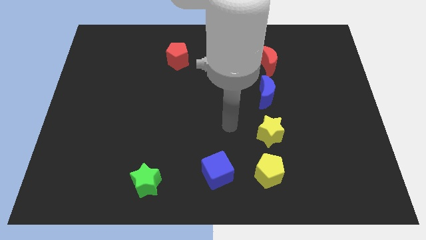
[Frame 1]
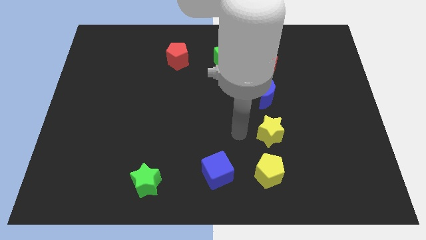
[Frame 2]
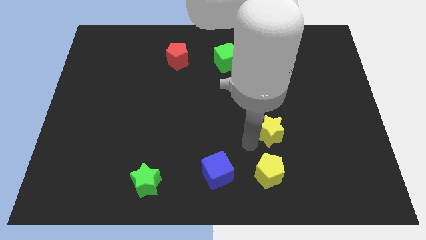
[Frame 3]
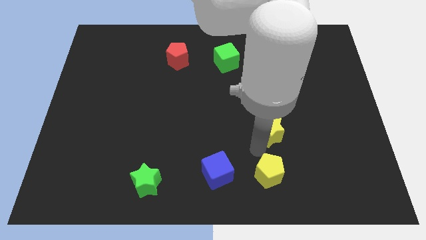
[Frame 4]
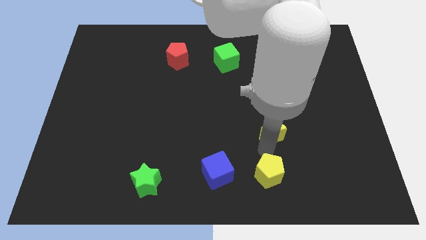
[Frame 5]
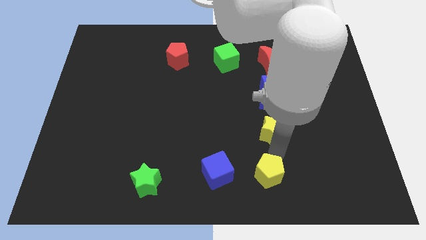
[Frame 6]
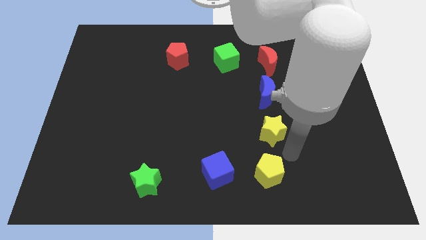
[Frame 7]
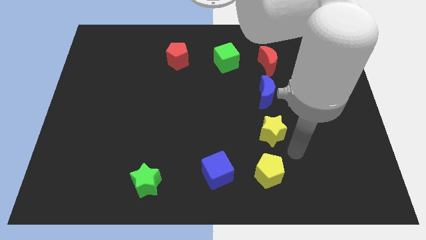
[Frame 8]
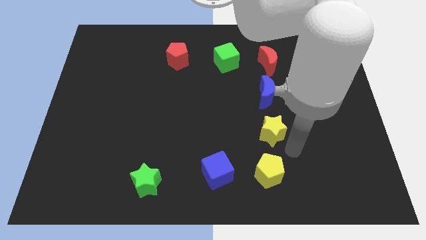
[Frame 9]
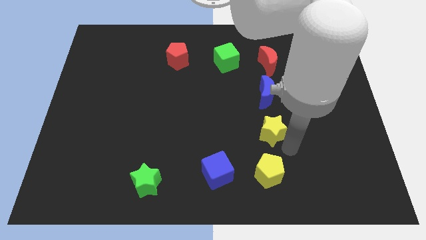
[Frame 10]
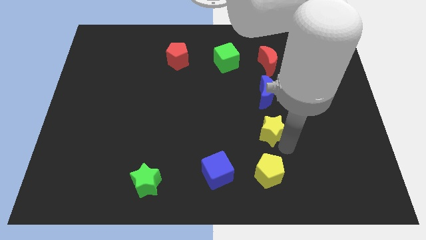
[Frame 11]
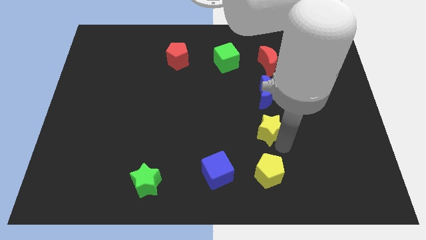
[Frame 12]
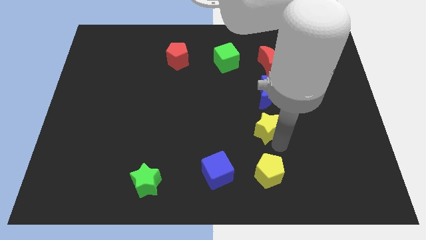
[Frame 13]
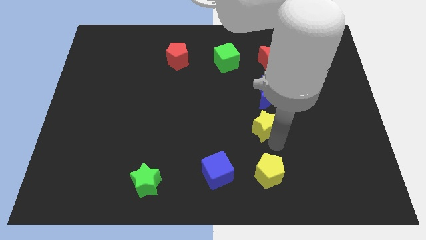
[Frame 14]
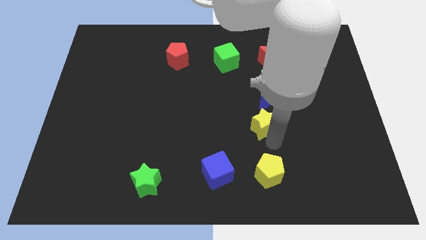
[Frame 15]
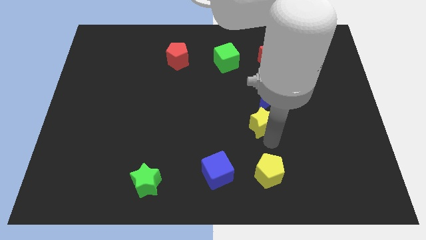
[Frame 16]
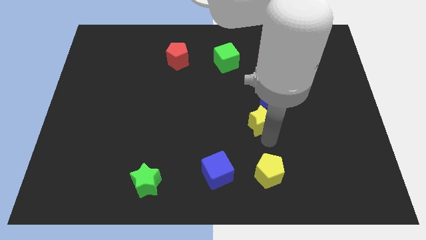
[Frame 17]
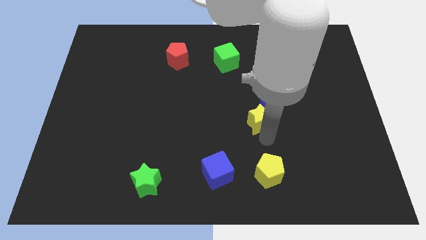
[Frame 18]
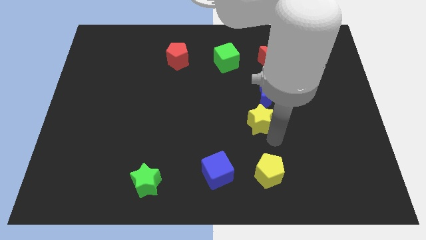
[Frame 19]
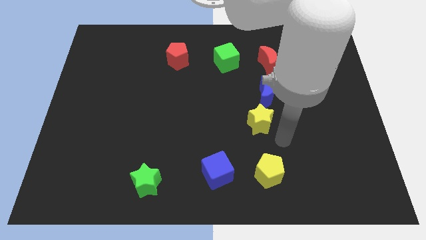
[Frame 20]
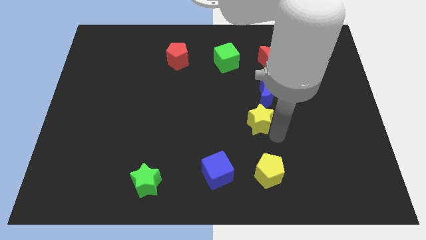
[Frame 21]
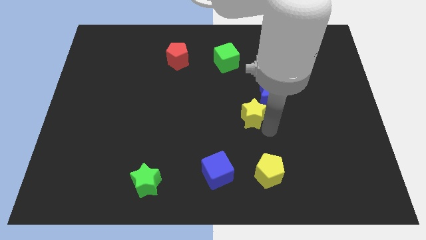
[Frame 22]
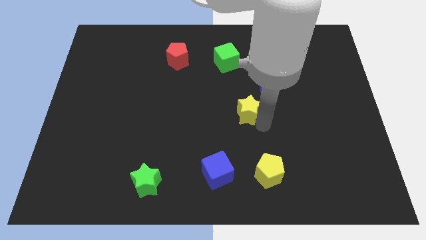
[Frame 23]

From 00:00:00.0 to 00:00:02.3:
push the yellow star upwards and to the left somewhat

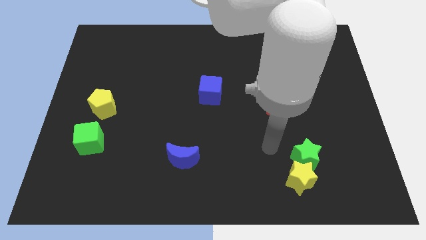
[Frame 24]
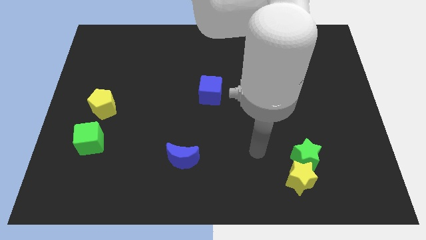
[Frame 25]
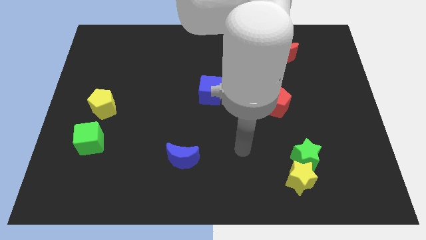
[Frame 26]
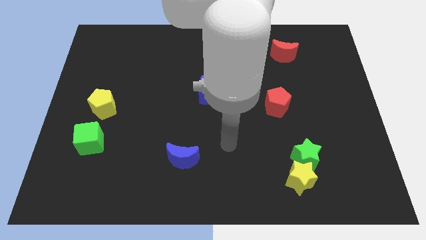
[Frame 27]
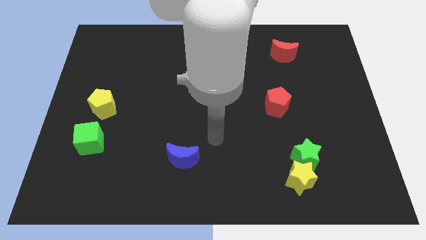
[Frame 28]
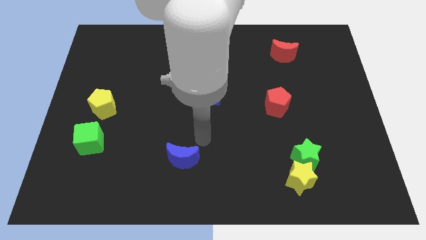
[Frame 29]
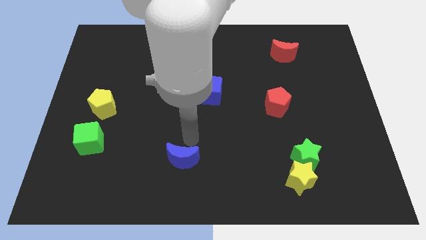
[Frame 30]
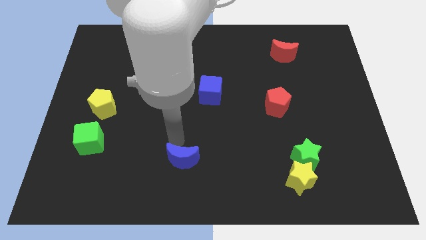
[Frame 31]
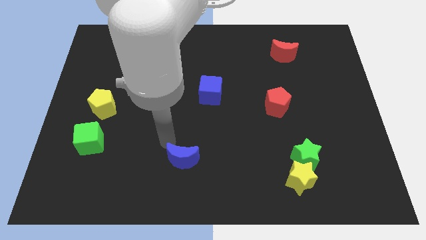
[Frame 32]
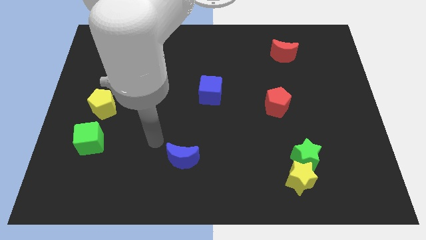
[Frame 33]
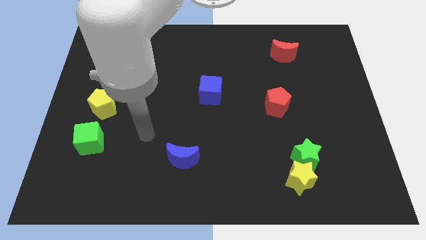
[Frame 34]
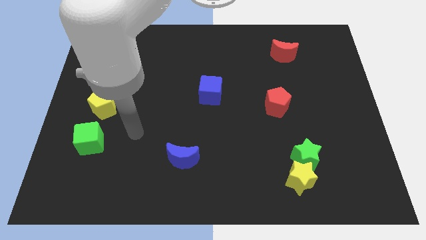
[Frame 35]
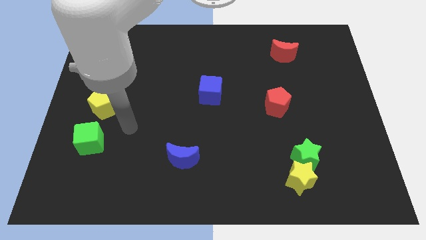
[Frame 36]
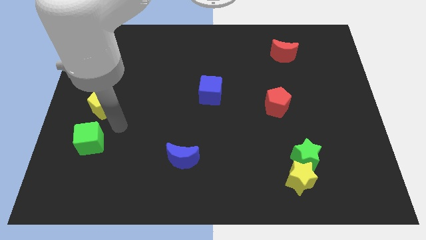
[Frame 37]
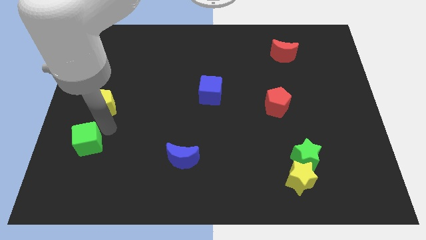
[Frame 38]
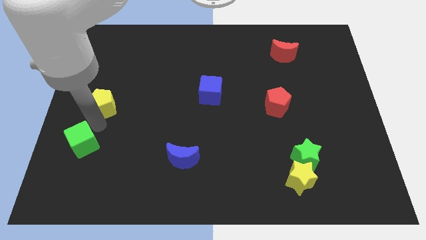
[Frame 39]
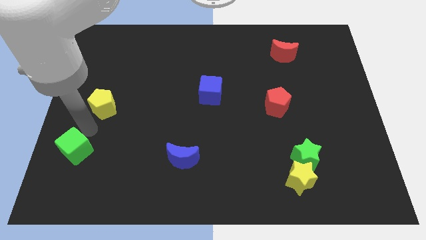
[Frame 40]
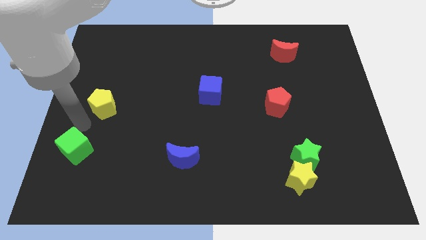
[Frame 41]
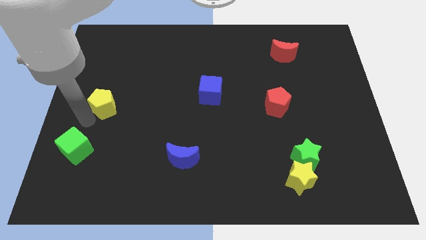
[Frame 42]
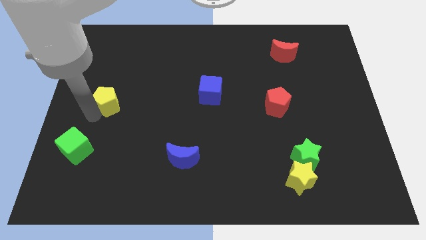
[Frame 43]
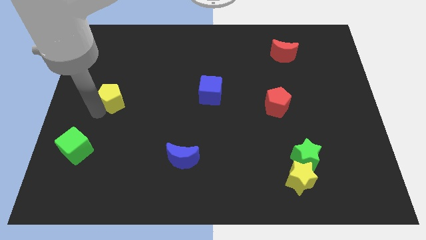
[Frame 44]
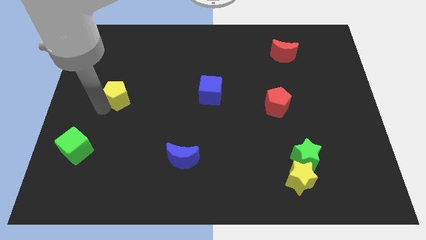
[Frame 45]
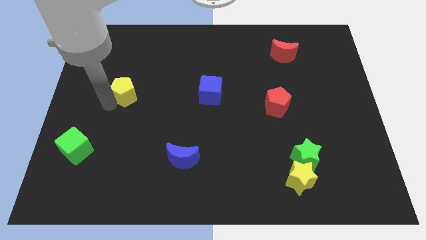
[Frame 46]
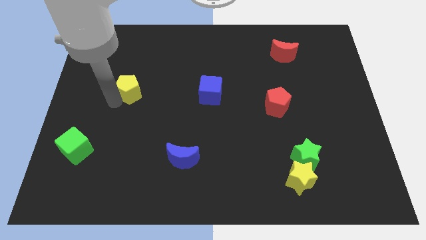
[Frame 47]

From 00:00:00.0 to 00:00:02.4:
slide the yellow pentagon diagonally upwards and right a bit

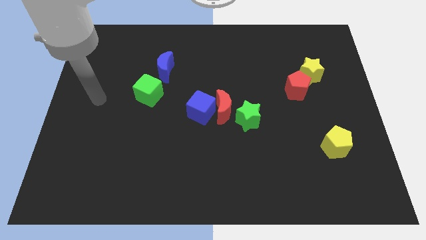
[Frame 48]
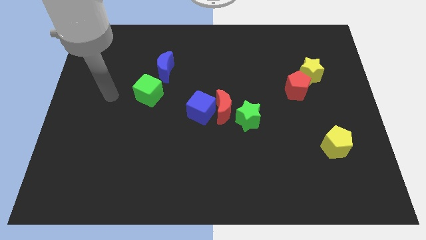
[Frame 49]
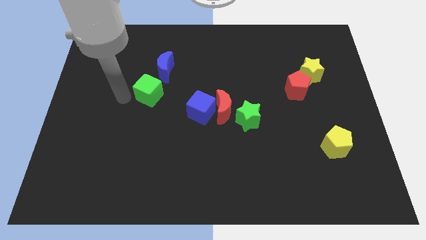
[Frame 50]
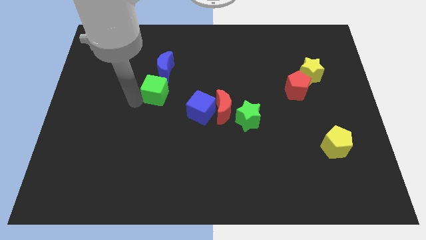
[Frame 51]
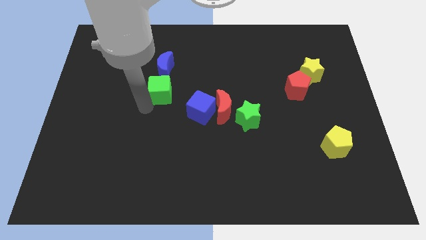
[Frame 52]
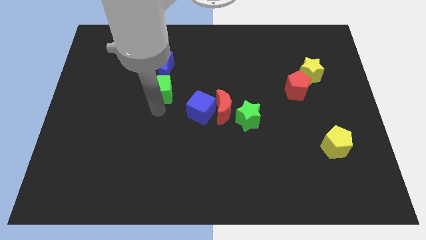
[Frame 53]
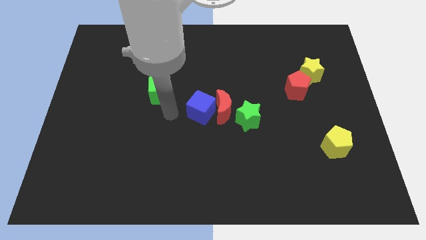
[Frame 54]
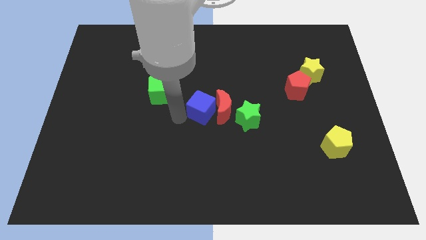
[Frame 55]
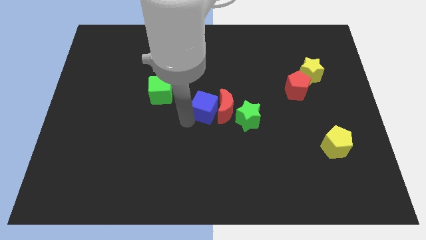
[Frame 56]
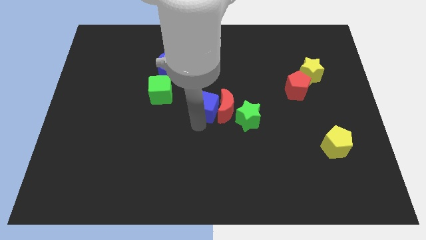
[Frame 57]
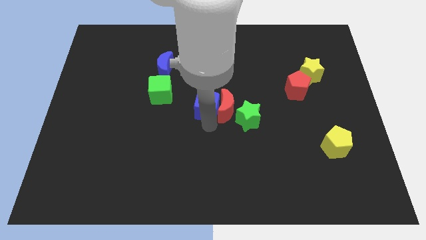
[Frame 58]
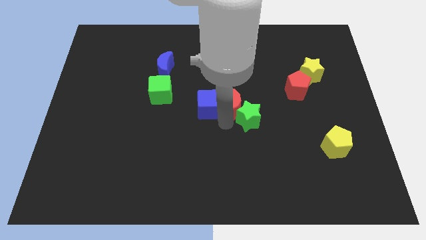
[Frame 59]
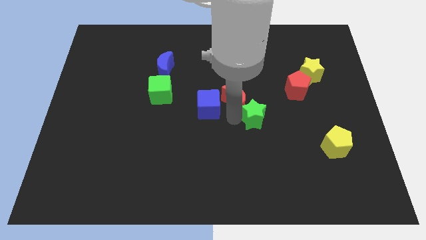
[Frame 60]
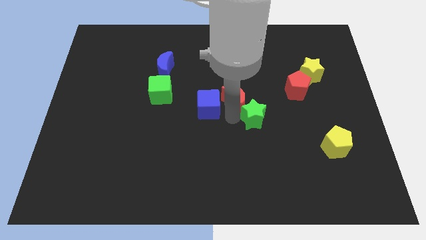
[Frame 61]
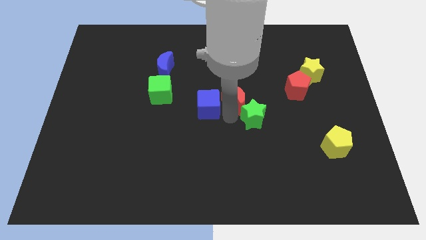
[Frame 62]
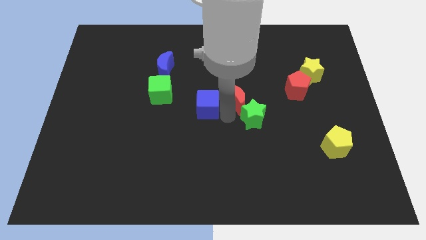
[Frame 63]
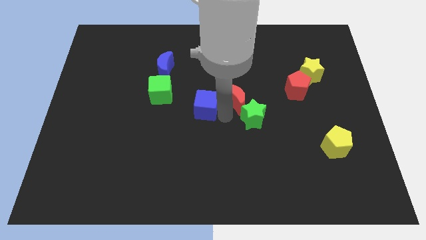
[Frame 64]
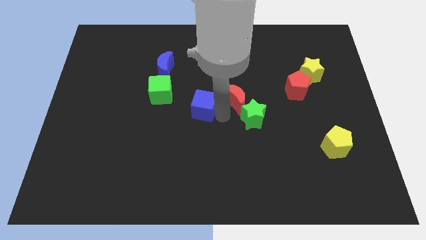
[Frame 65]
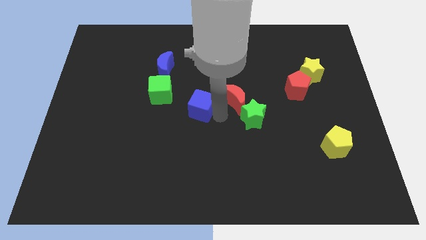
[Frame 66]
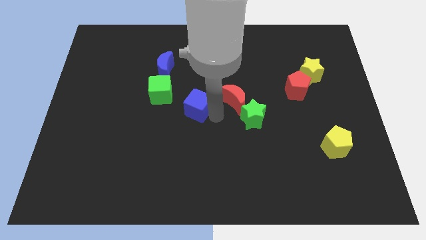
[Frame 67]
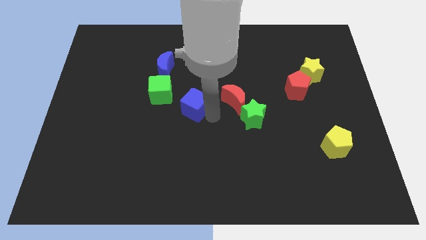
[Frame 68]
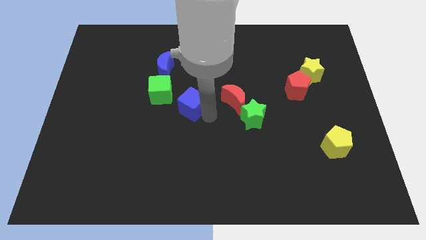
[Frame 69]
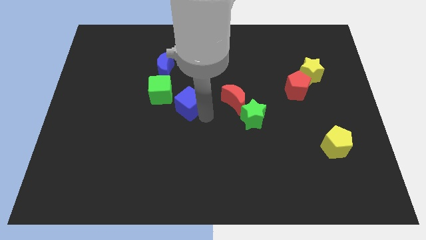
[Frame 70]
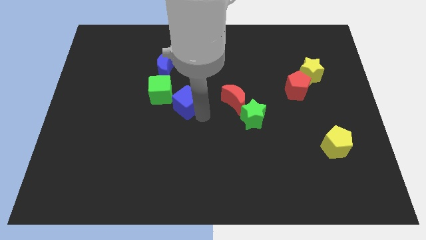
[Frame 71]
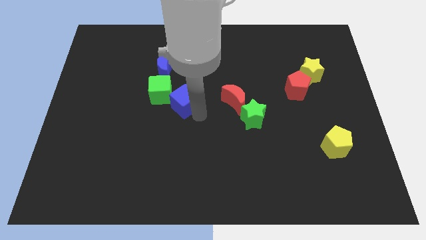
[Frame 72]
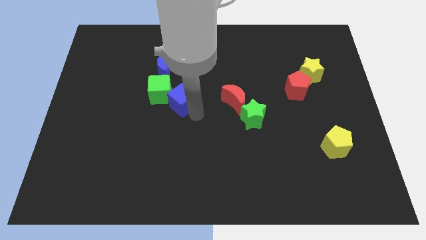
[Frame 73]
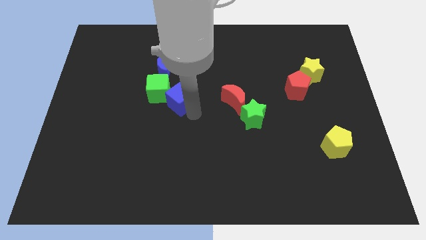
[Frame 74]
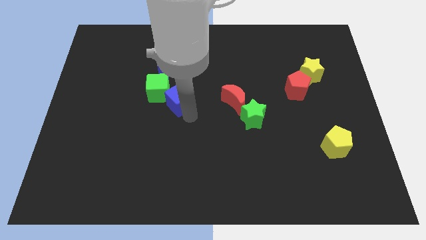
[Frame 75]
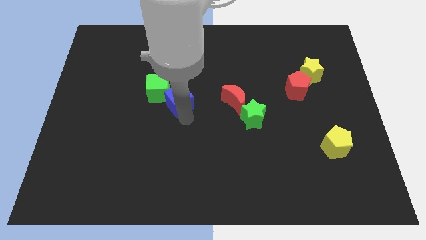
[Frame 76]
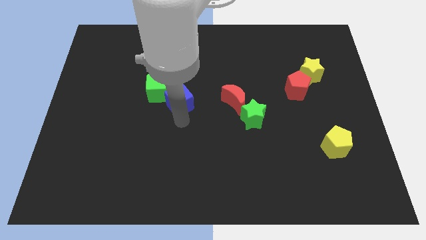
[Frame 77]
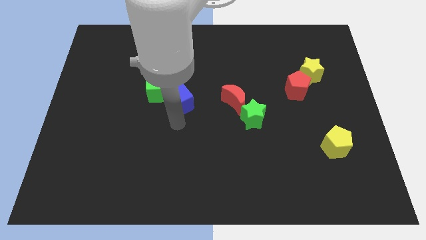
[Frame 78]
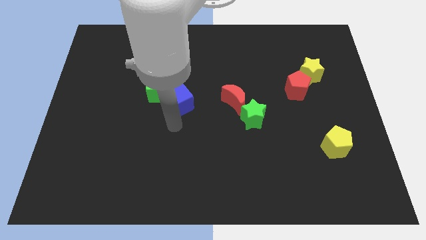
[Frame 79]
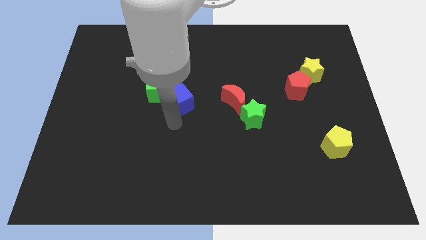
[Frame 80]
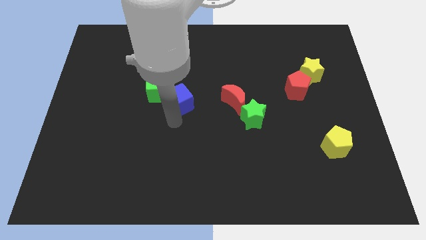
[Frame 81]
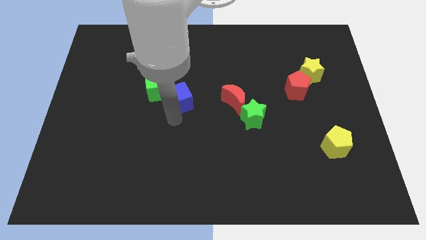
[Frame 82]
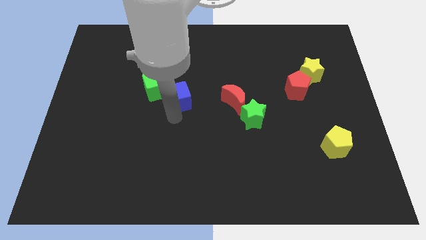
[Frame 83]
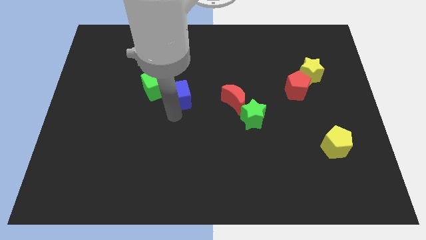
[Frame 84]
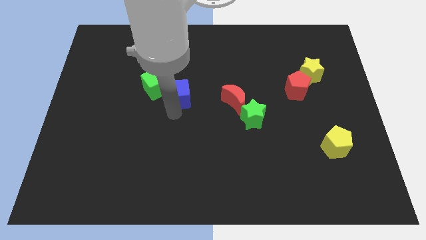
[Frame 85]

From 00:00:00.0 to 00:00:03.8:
push the blue cube slightly up and then to the left
